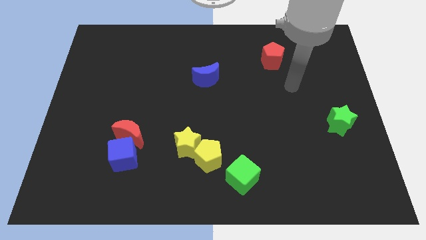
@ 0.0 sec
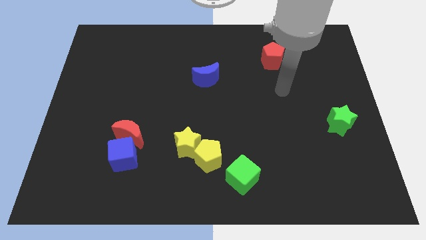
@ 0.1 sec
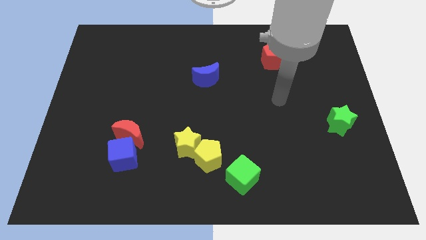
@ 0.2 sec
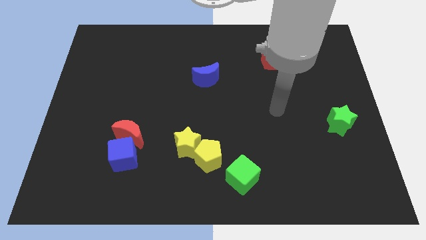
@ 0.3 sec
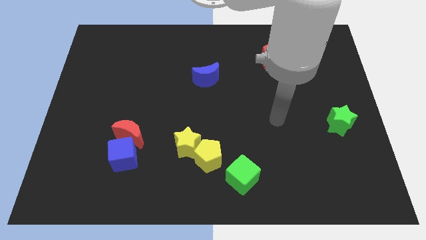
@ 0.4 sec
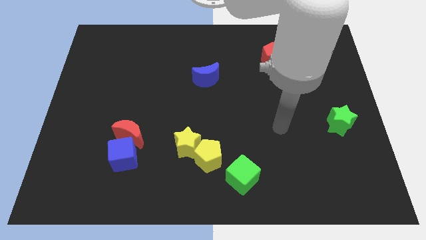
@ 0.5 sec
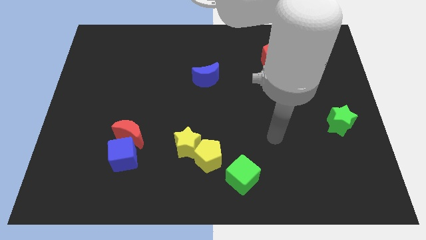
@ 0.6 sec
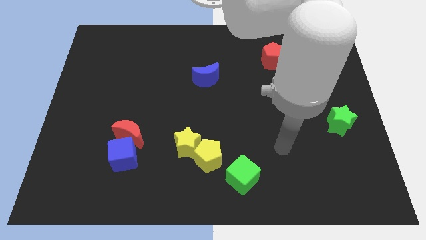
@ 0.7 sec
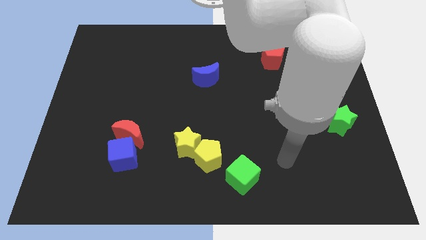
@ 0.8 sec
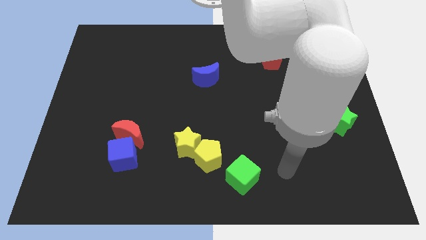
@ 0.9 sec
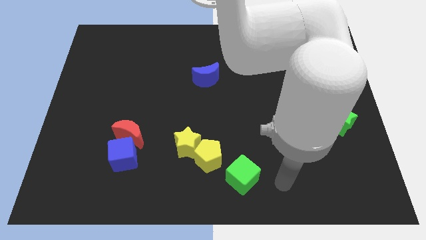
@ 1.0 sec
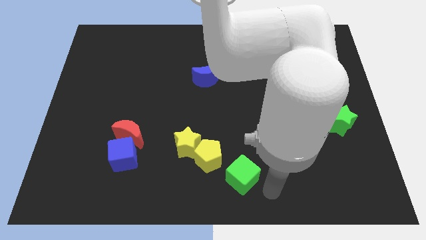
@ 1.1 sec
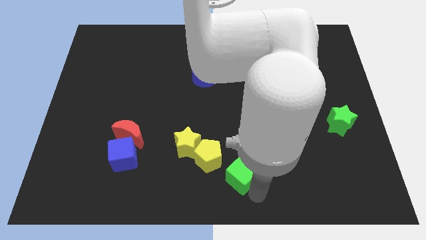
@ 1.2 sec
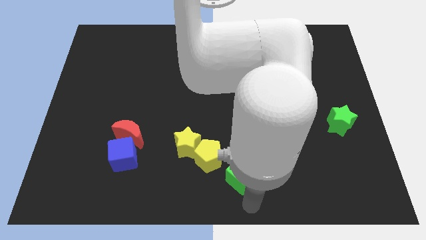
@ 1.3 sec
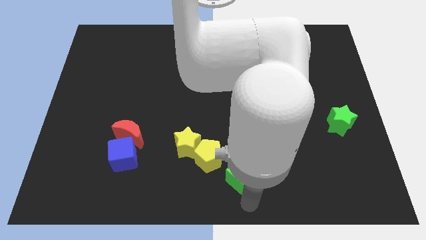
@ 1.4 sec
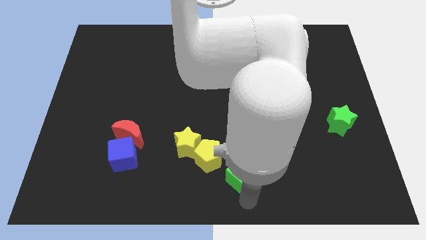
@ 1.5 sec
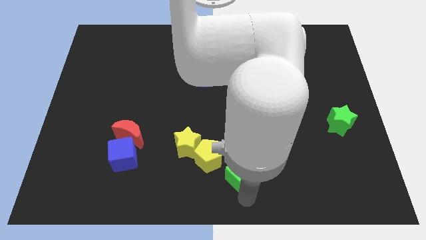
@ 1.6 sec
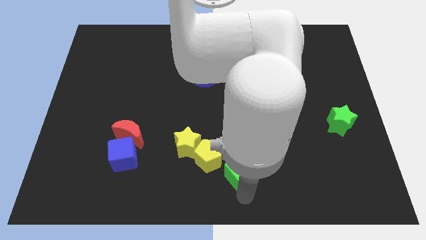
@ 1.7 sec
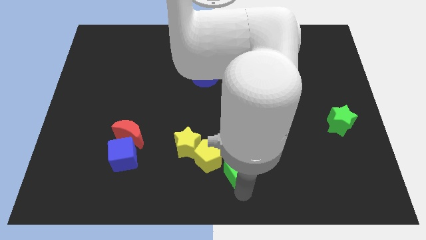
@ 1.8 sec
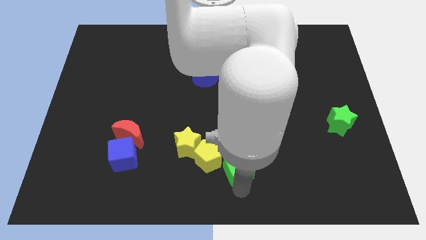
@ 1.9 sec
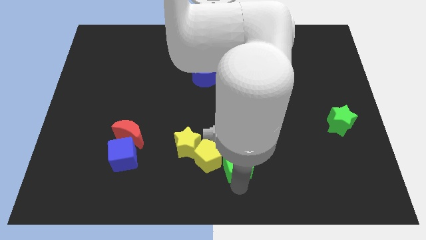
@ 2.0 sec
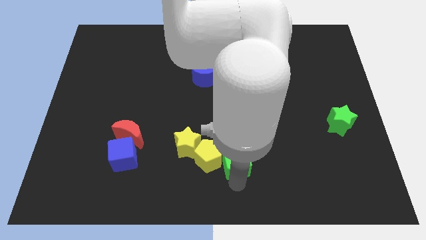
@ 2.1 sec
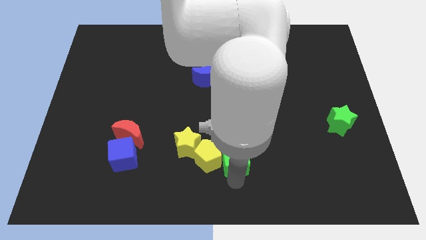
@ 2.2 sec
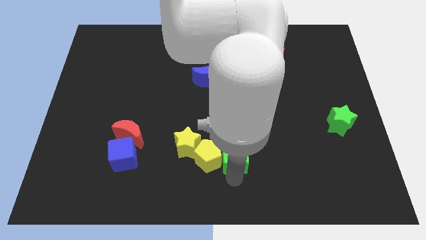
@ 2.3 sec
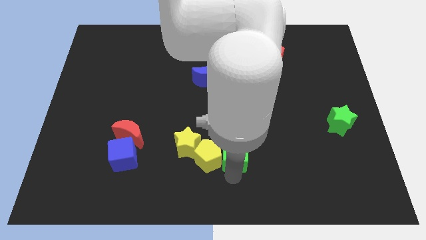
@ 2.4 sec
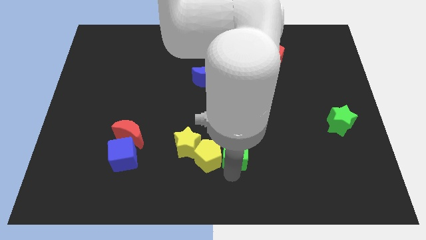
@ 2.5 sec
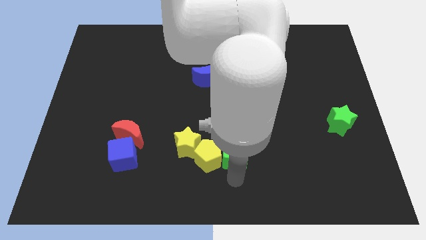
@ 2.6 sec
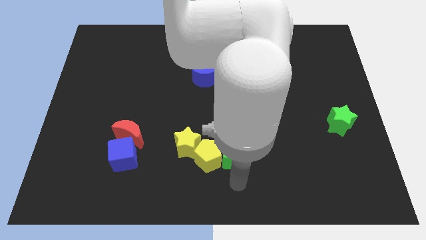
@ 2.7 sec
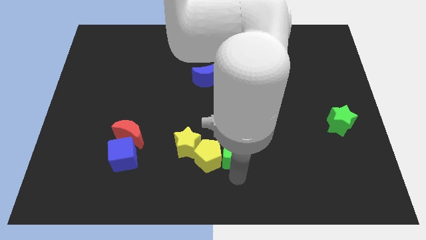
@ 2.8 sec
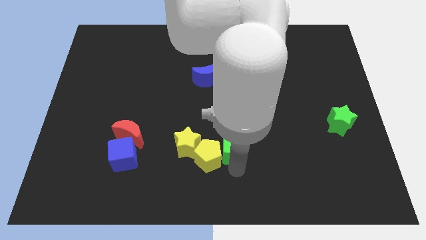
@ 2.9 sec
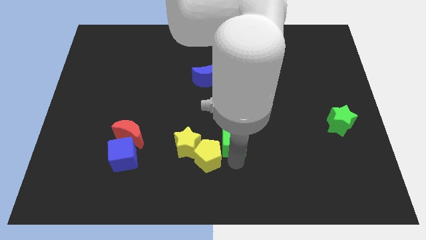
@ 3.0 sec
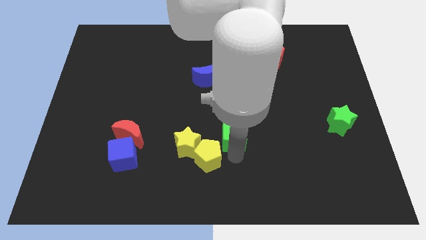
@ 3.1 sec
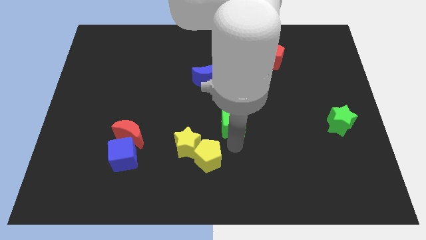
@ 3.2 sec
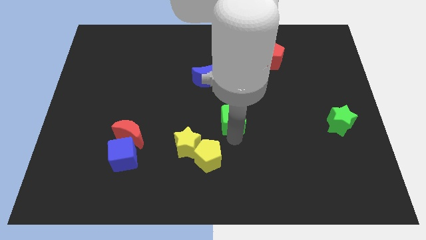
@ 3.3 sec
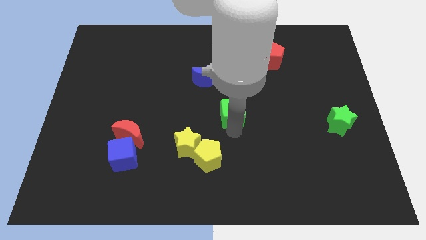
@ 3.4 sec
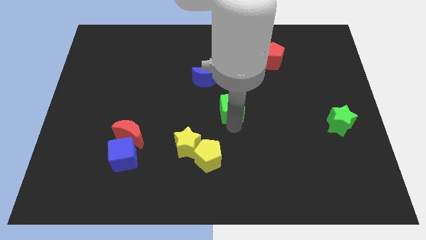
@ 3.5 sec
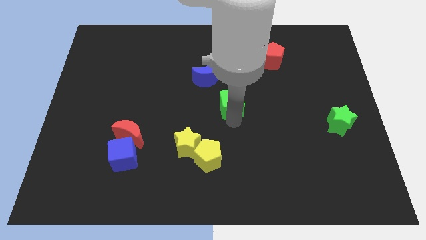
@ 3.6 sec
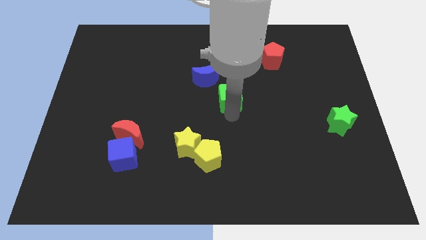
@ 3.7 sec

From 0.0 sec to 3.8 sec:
move the green cube up

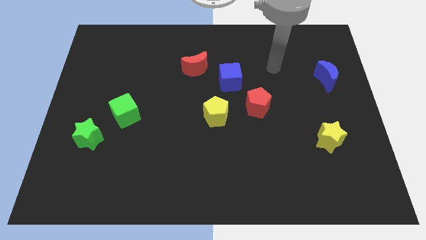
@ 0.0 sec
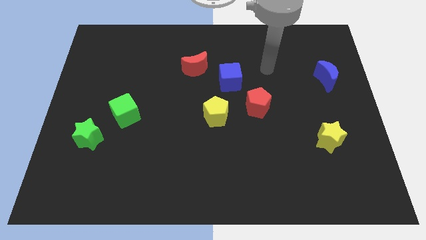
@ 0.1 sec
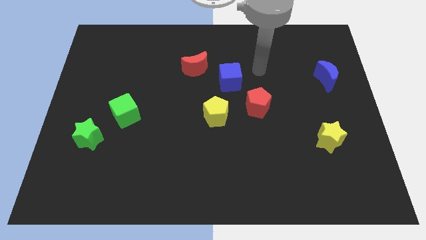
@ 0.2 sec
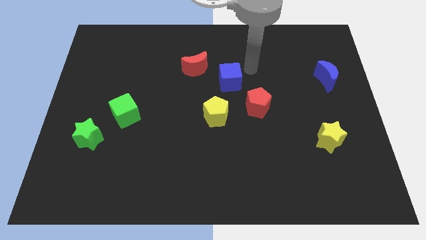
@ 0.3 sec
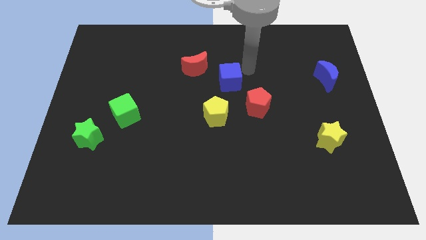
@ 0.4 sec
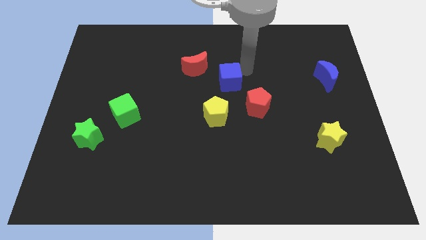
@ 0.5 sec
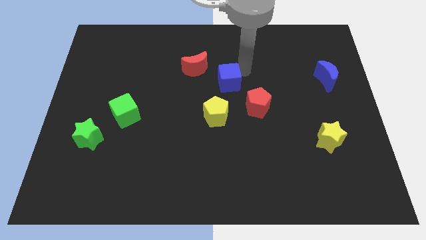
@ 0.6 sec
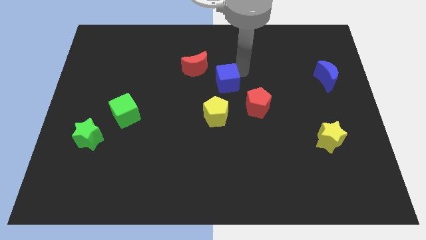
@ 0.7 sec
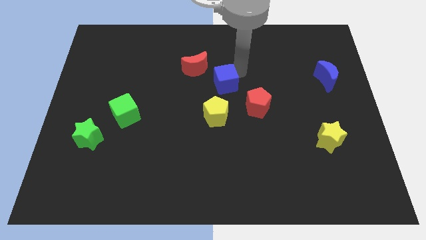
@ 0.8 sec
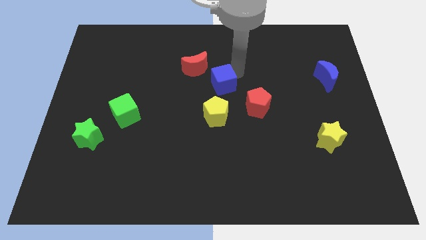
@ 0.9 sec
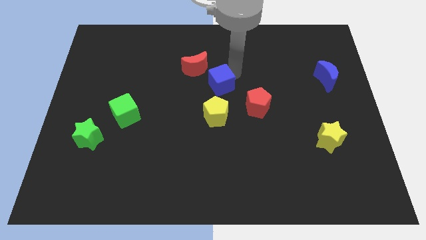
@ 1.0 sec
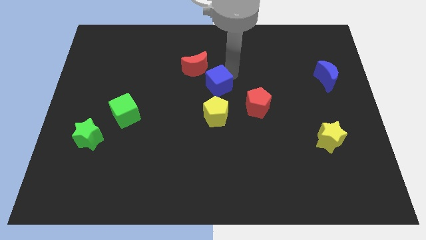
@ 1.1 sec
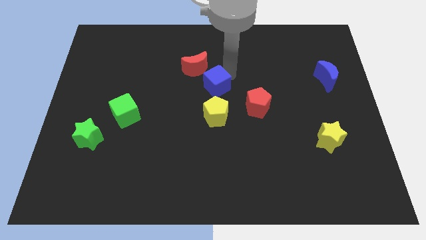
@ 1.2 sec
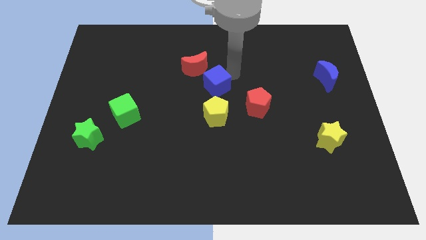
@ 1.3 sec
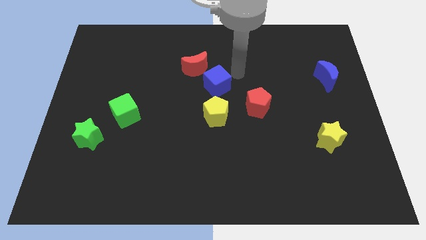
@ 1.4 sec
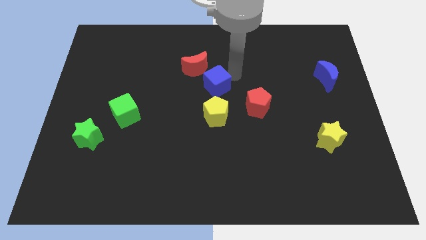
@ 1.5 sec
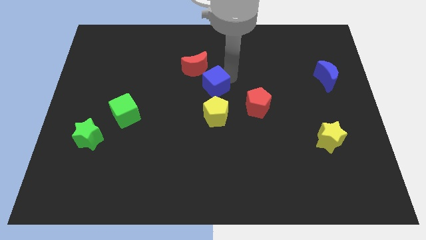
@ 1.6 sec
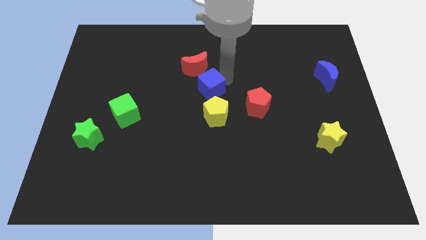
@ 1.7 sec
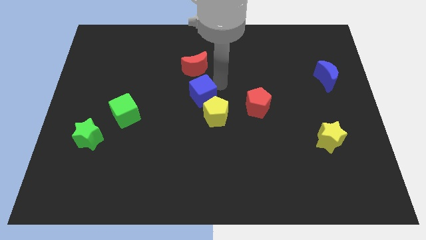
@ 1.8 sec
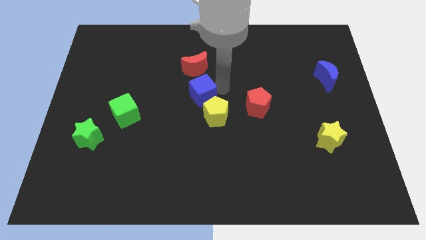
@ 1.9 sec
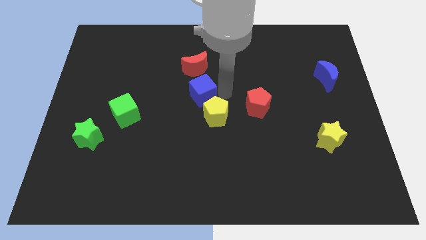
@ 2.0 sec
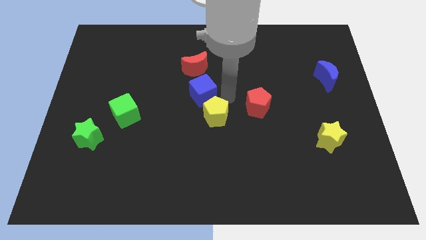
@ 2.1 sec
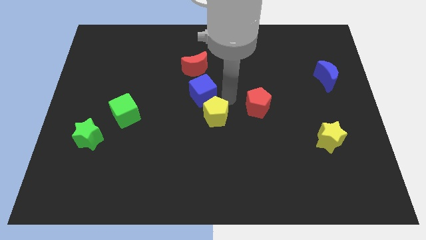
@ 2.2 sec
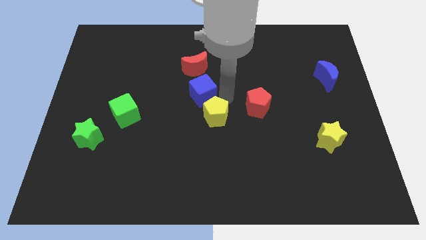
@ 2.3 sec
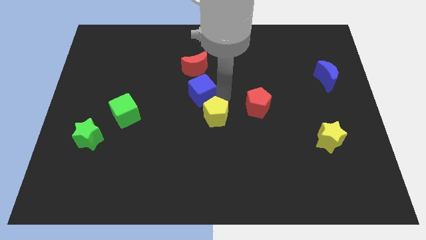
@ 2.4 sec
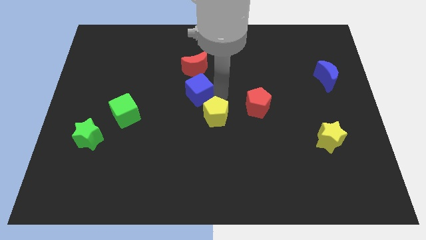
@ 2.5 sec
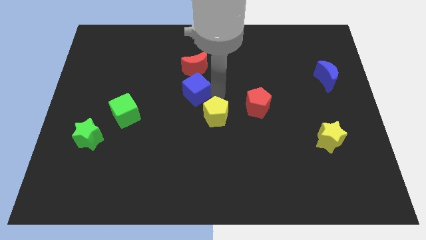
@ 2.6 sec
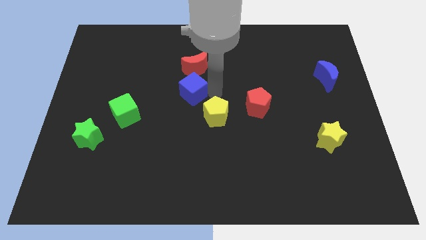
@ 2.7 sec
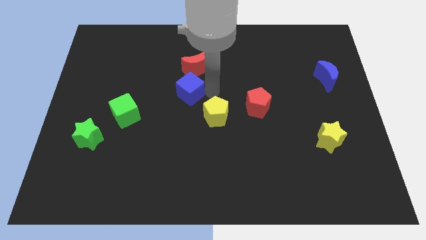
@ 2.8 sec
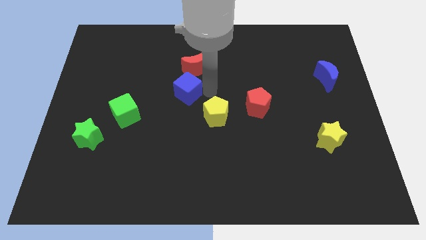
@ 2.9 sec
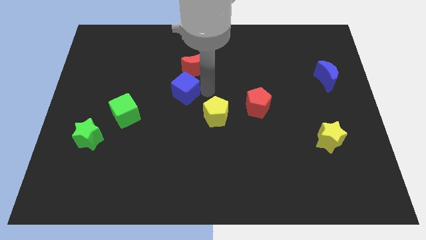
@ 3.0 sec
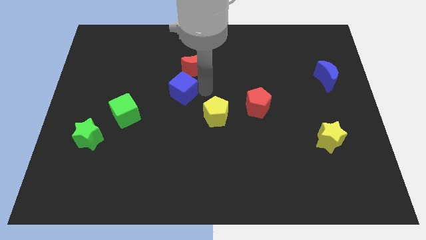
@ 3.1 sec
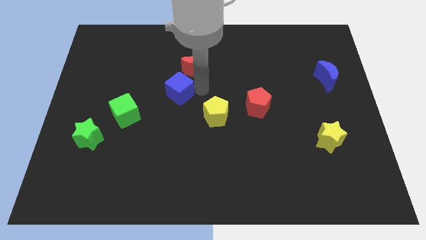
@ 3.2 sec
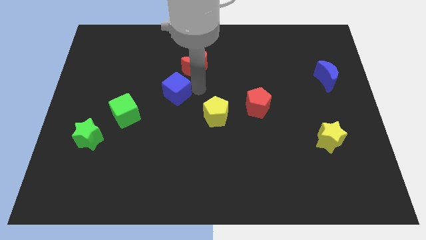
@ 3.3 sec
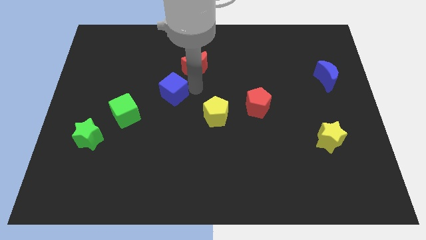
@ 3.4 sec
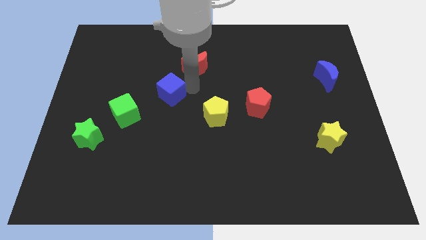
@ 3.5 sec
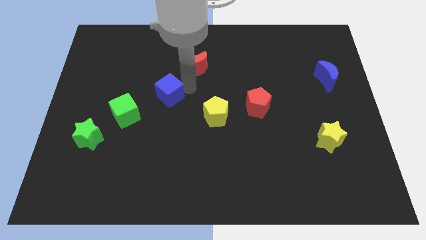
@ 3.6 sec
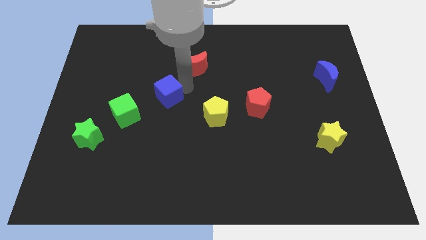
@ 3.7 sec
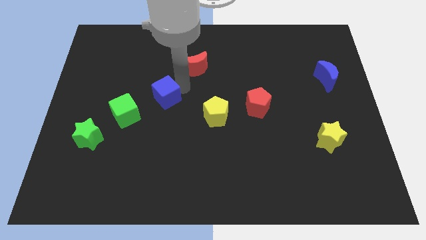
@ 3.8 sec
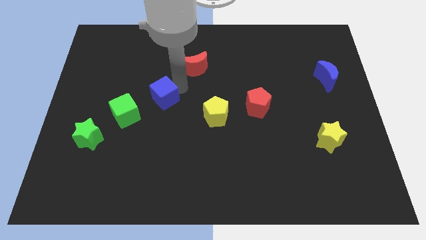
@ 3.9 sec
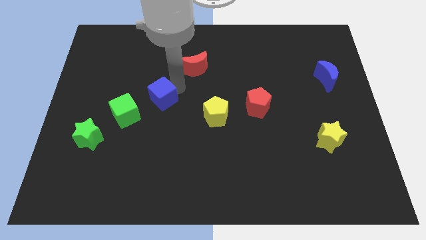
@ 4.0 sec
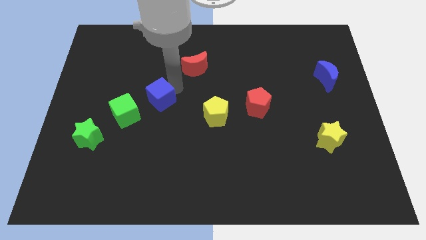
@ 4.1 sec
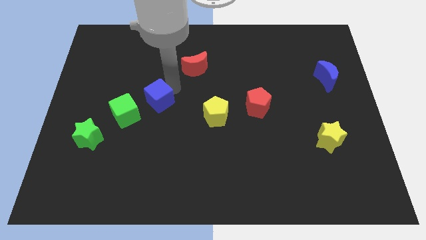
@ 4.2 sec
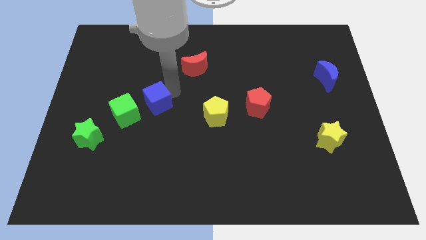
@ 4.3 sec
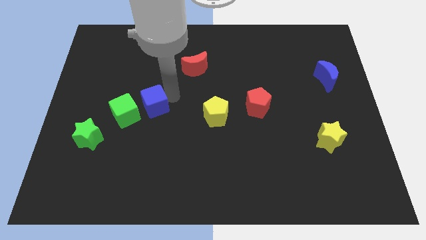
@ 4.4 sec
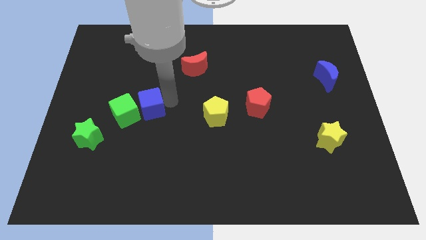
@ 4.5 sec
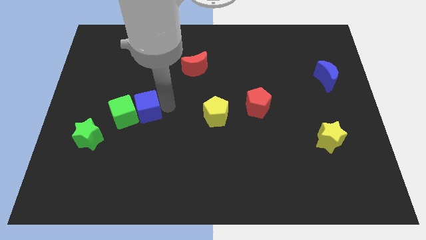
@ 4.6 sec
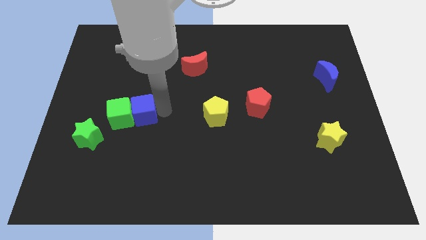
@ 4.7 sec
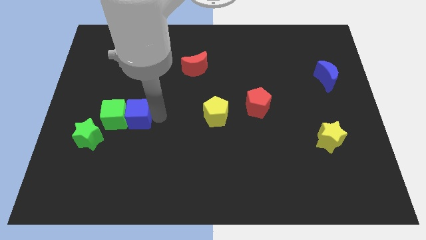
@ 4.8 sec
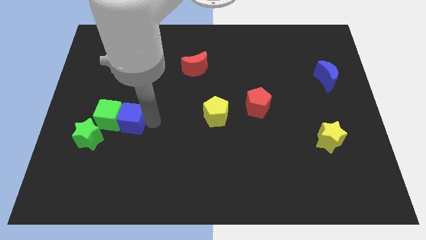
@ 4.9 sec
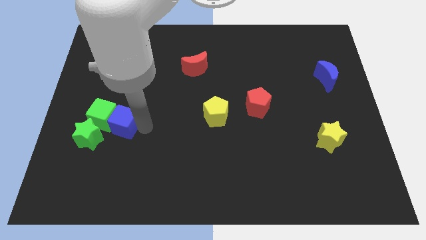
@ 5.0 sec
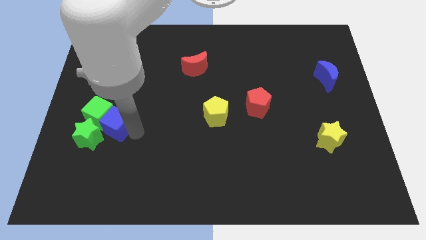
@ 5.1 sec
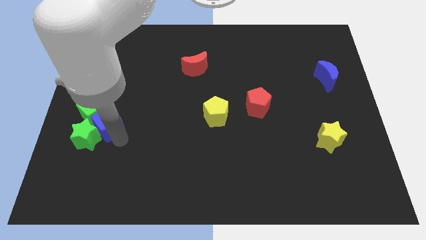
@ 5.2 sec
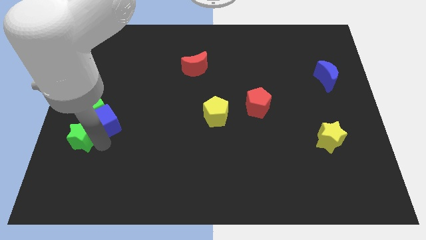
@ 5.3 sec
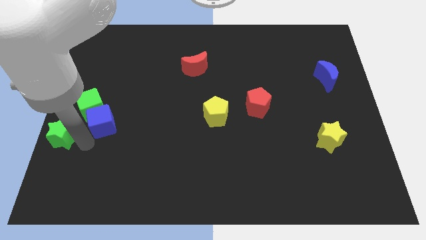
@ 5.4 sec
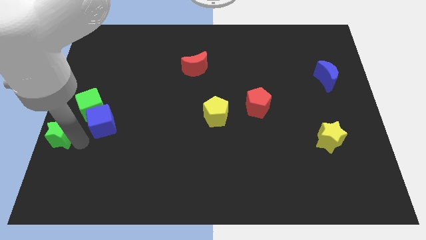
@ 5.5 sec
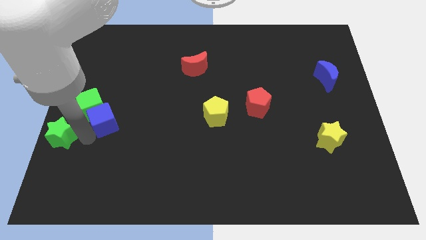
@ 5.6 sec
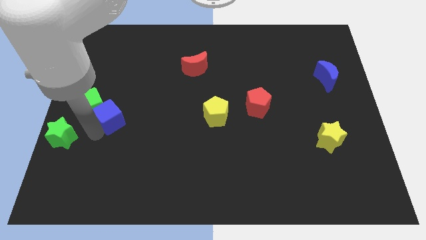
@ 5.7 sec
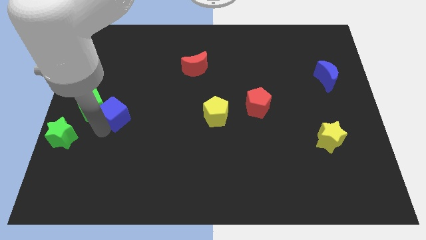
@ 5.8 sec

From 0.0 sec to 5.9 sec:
push the blue cube to the left
